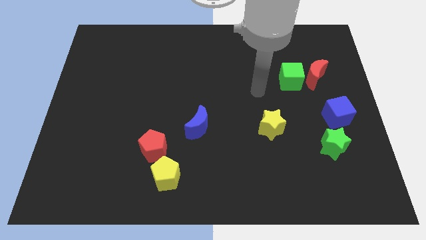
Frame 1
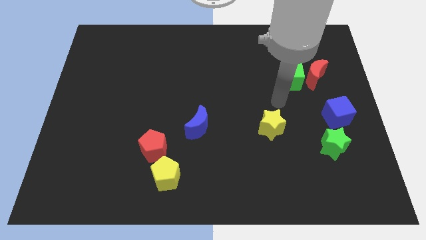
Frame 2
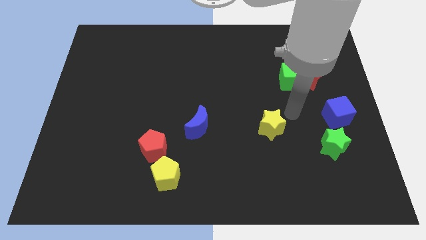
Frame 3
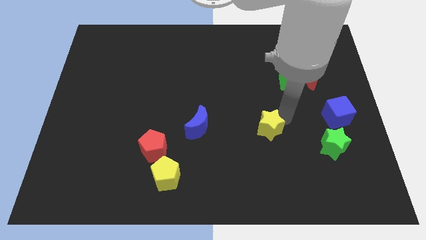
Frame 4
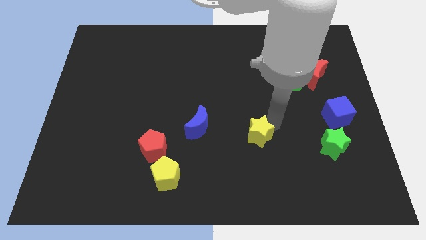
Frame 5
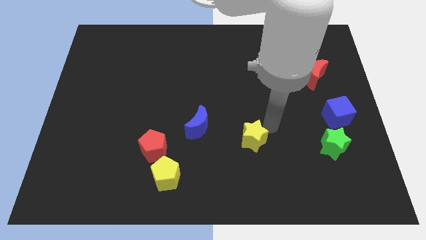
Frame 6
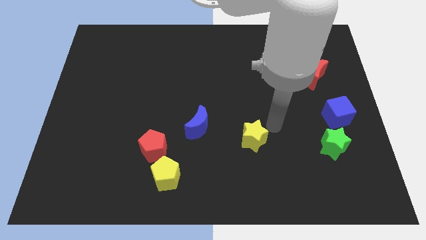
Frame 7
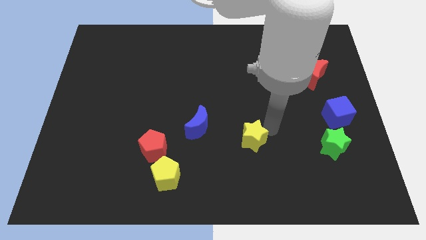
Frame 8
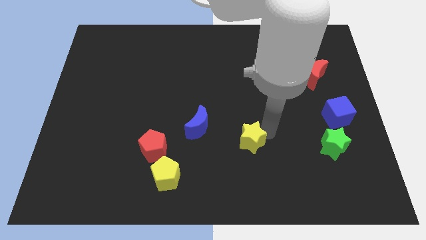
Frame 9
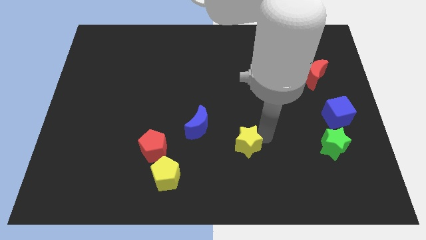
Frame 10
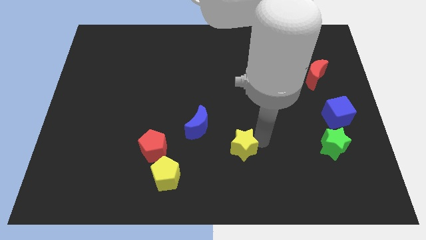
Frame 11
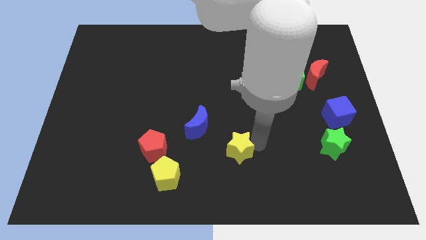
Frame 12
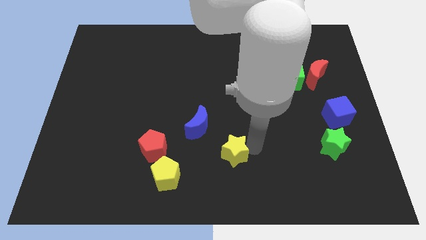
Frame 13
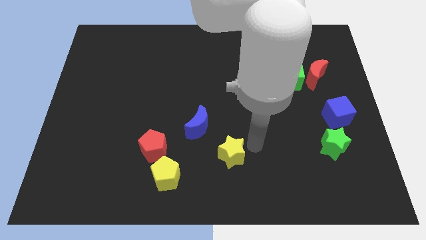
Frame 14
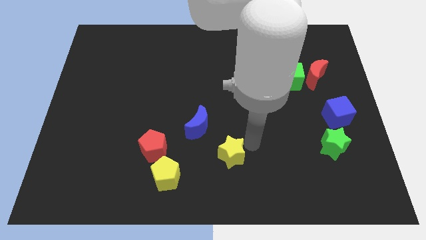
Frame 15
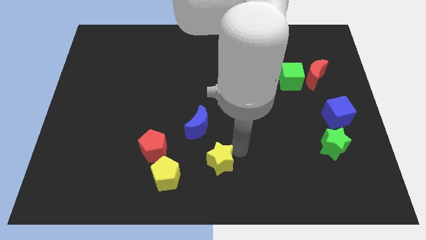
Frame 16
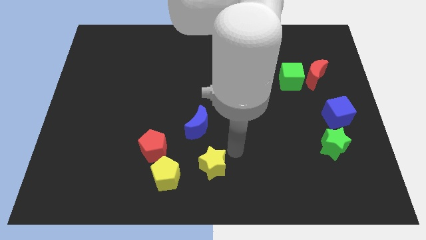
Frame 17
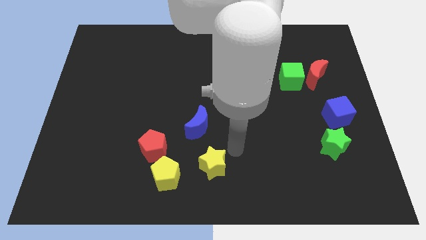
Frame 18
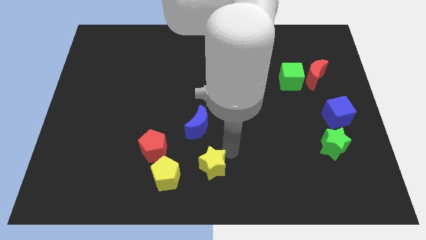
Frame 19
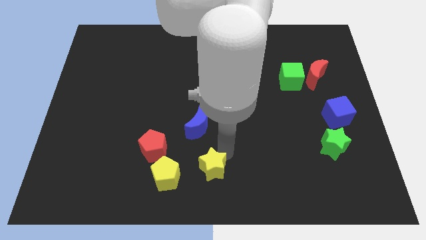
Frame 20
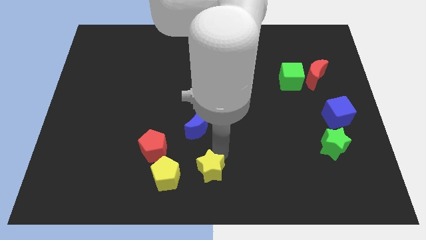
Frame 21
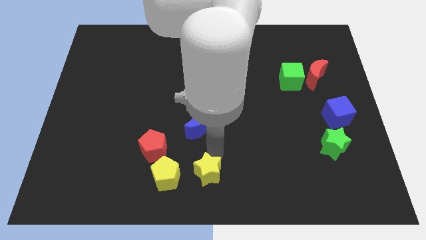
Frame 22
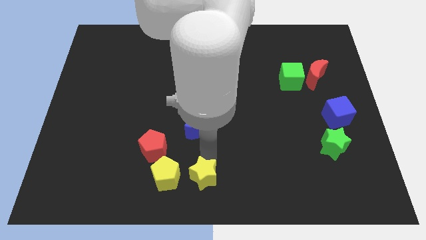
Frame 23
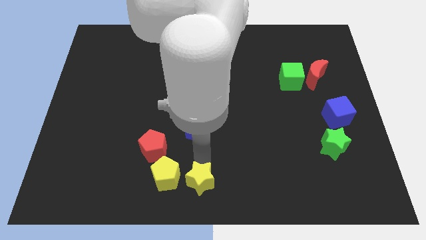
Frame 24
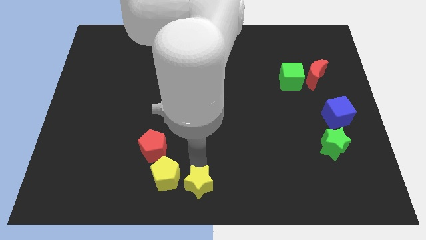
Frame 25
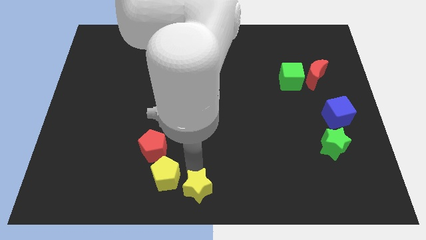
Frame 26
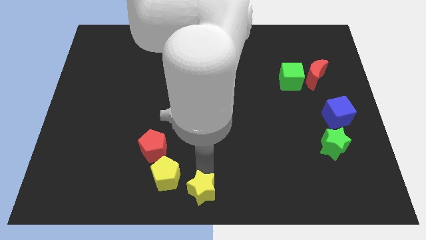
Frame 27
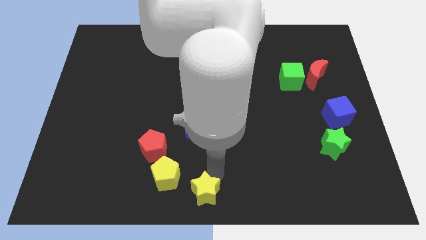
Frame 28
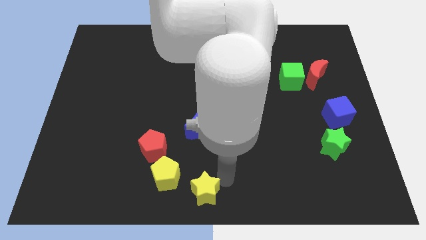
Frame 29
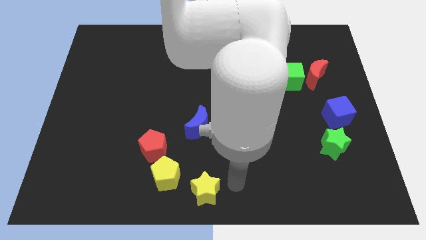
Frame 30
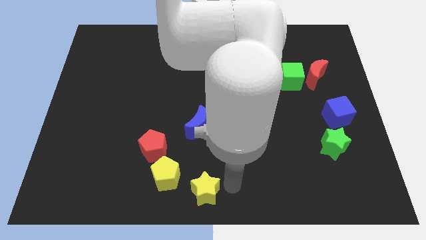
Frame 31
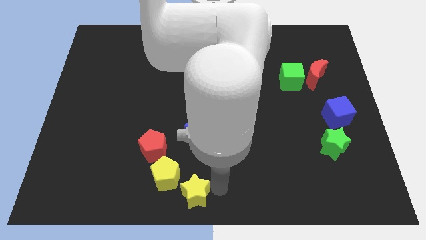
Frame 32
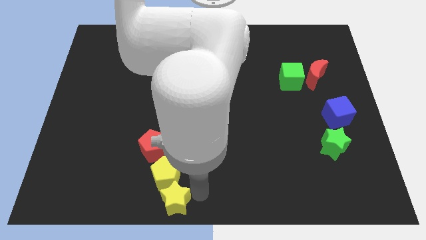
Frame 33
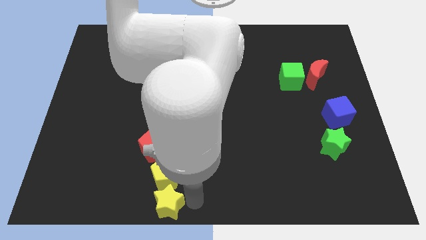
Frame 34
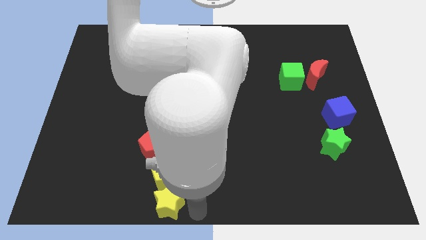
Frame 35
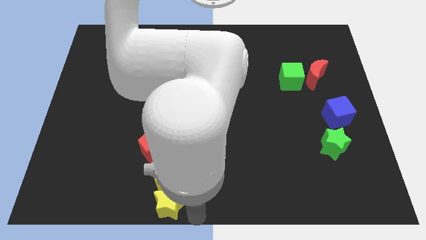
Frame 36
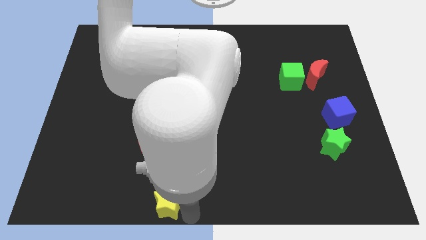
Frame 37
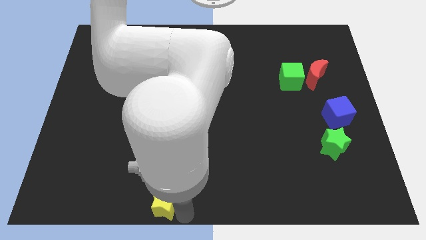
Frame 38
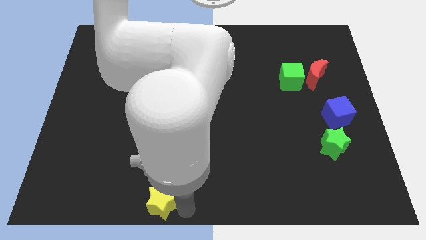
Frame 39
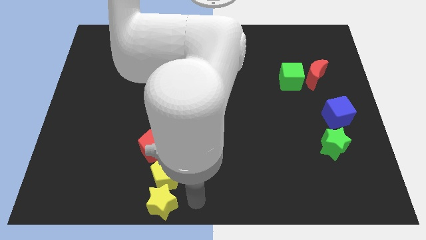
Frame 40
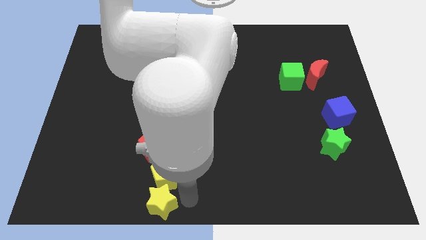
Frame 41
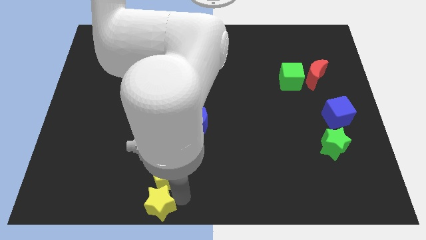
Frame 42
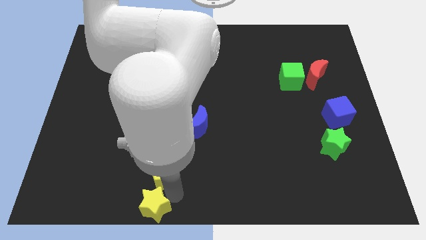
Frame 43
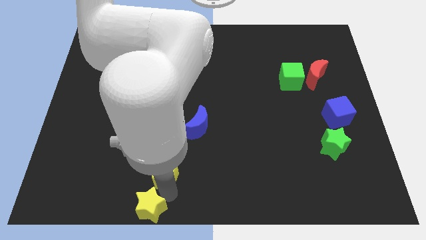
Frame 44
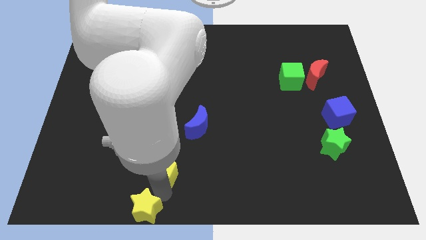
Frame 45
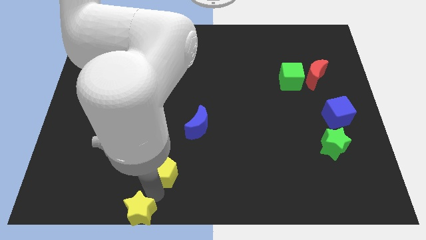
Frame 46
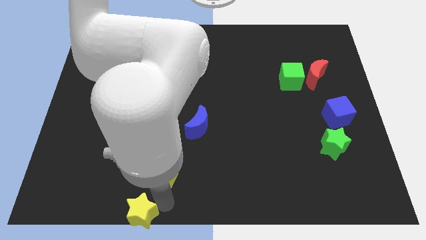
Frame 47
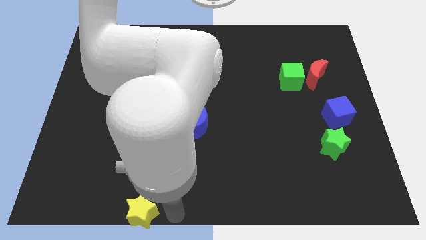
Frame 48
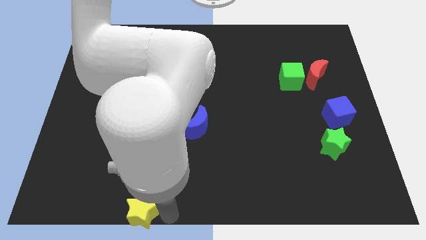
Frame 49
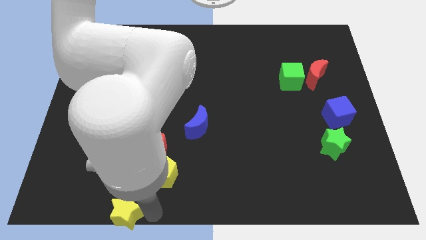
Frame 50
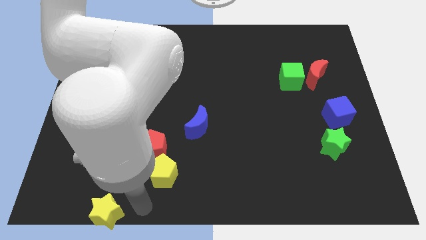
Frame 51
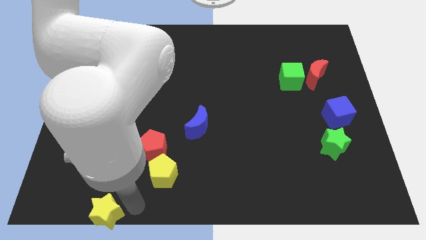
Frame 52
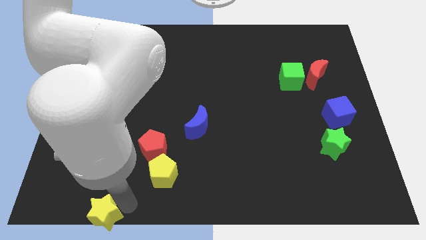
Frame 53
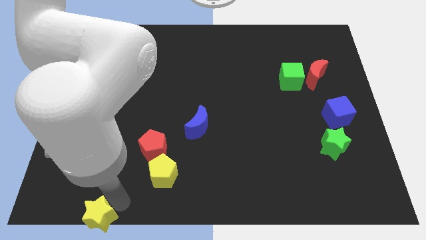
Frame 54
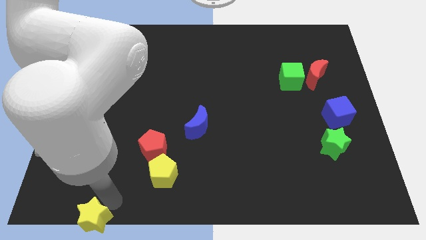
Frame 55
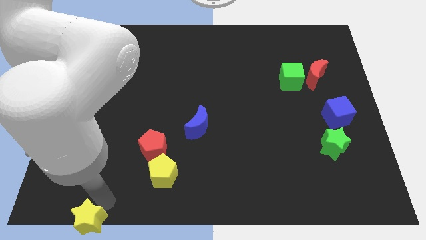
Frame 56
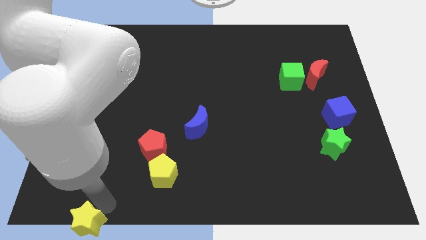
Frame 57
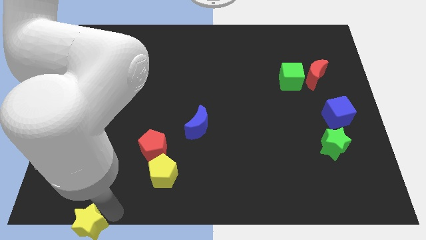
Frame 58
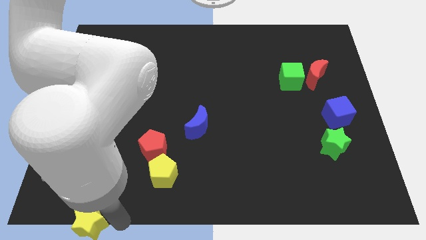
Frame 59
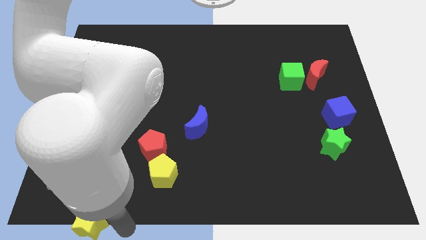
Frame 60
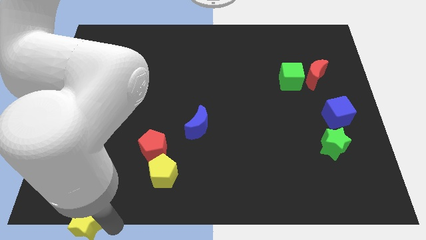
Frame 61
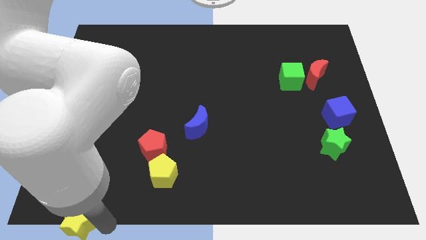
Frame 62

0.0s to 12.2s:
slide the yellow star to the bottom left

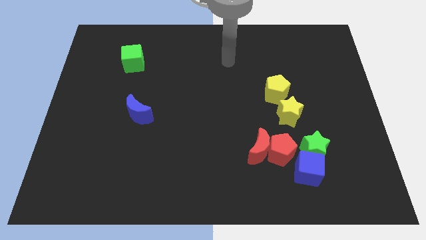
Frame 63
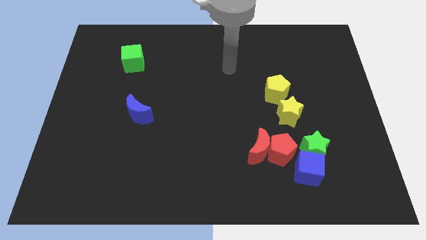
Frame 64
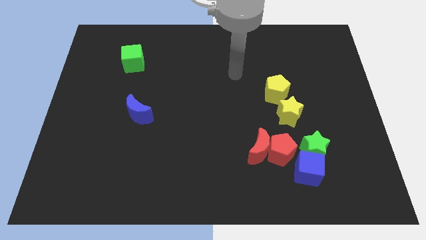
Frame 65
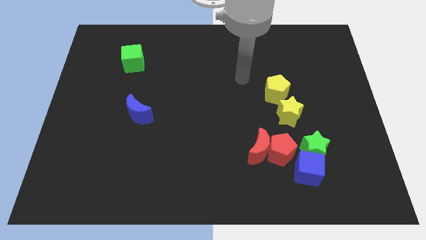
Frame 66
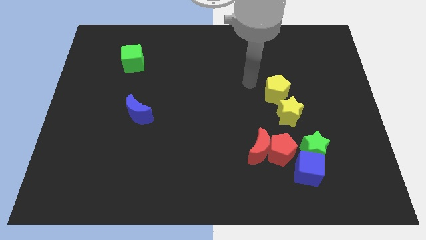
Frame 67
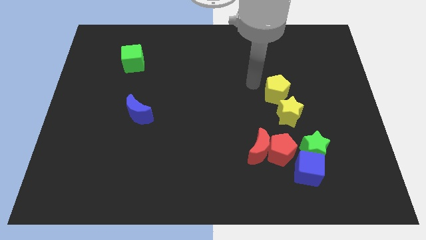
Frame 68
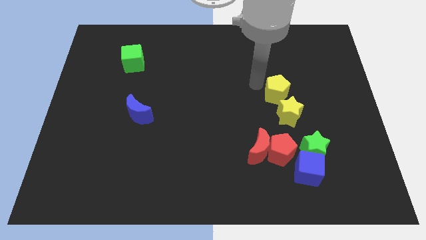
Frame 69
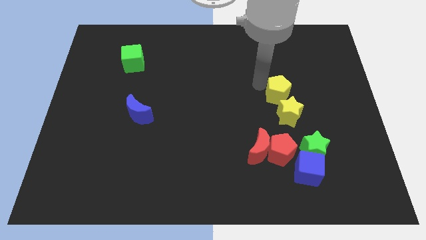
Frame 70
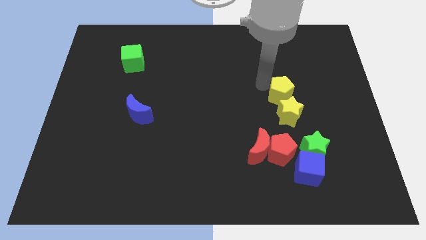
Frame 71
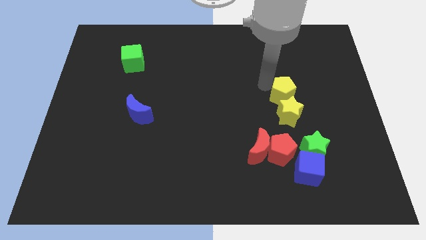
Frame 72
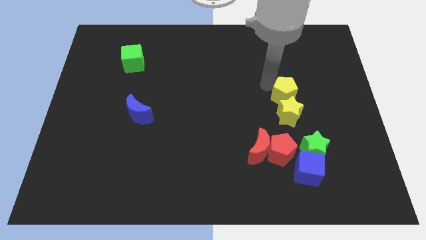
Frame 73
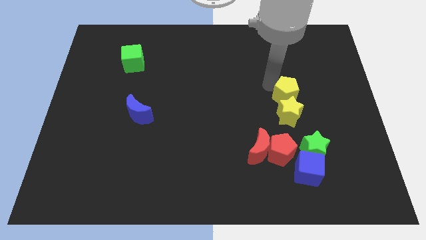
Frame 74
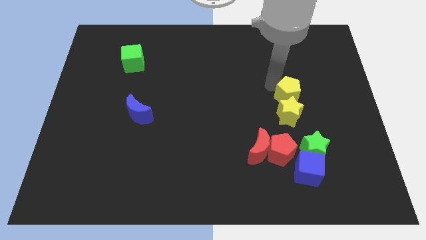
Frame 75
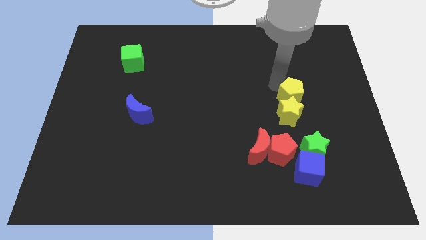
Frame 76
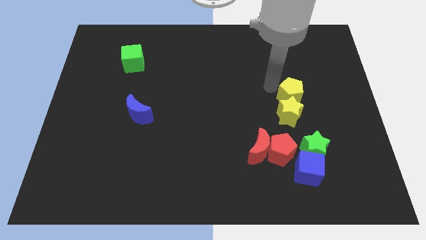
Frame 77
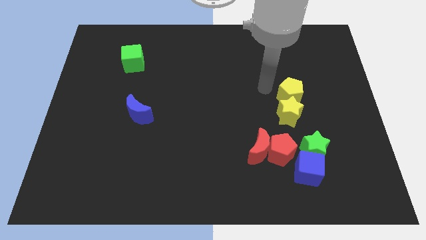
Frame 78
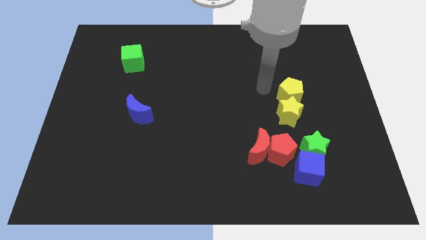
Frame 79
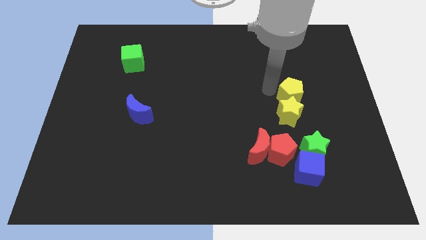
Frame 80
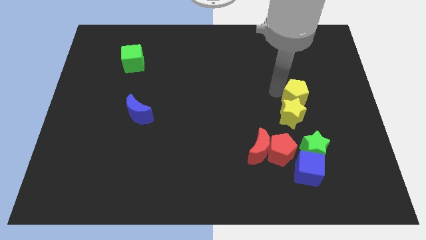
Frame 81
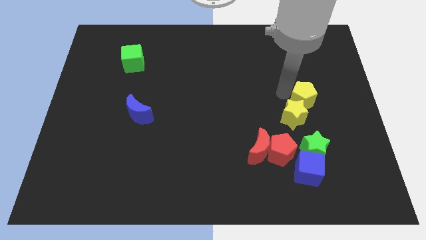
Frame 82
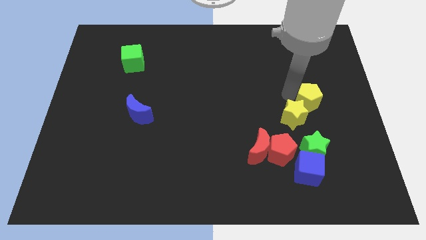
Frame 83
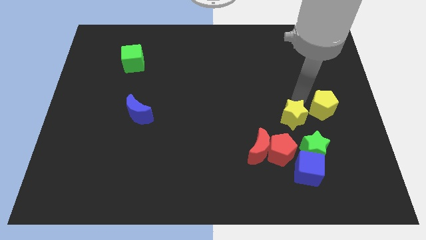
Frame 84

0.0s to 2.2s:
put the yellow pentagon to the right side of the board
